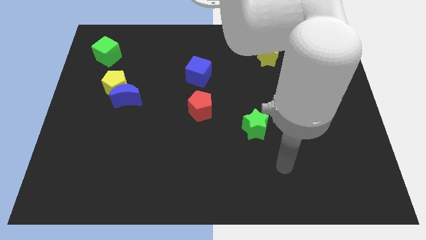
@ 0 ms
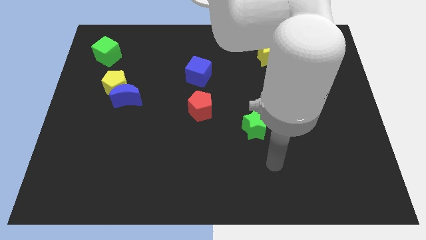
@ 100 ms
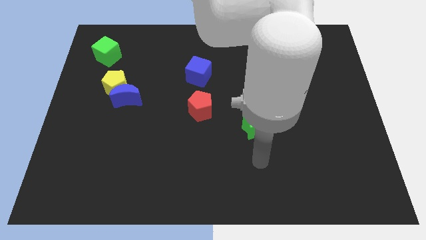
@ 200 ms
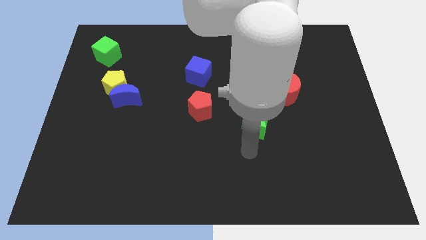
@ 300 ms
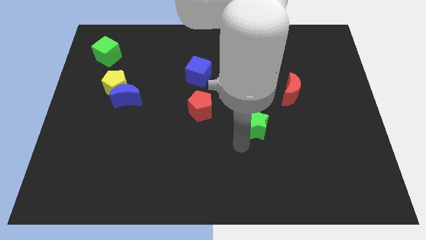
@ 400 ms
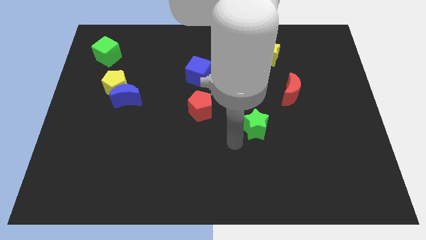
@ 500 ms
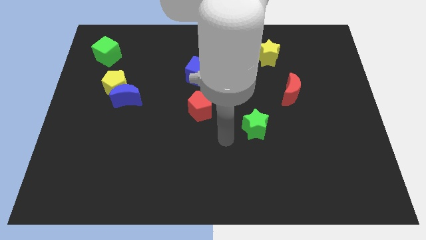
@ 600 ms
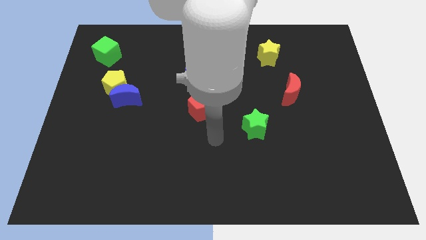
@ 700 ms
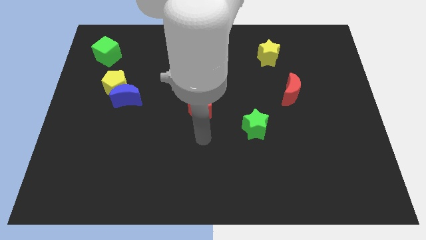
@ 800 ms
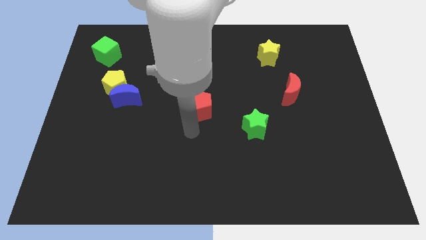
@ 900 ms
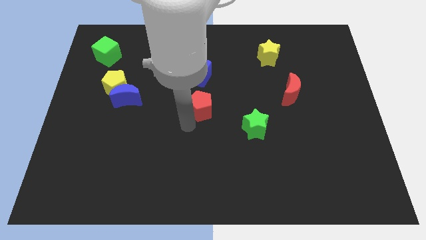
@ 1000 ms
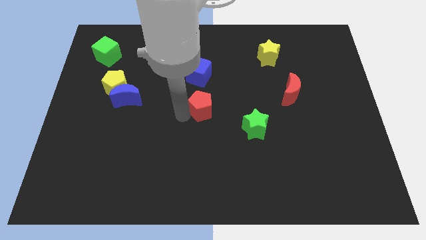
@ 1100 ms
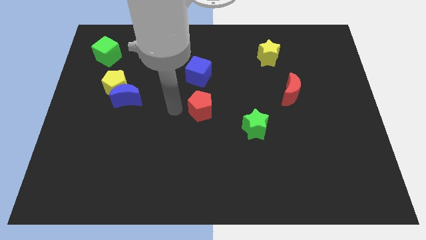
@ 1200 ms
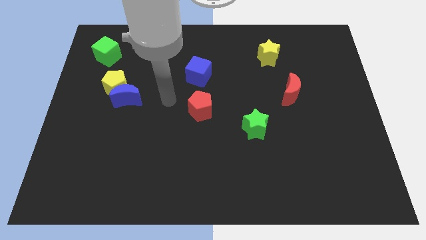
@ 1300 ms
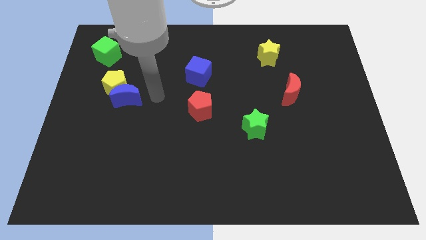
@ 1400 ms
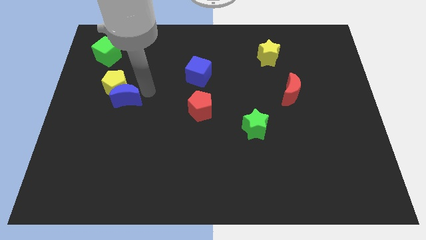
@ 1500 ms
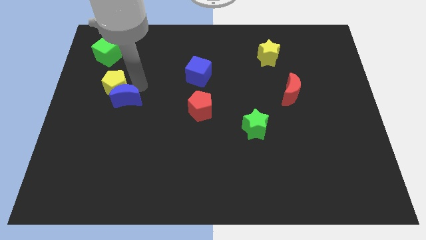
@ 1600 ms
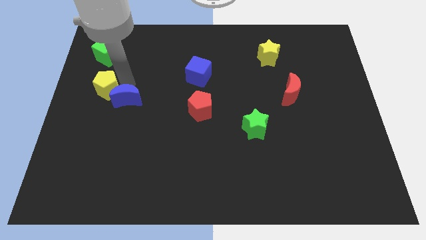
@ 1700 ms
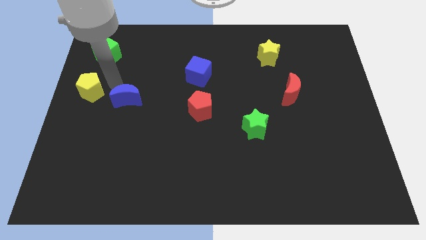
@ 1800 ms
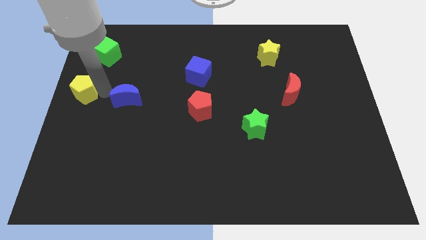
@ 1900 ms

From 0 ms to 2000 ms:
separate the blue moon from the yellow pentagon

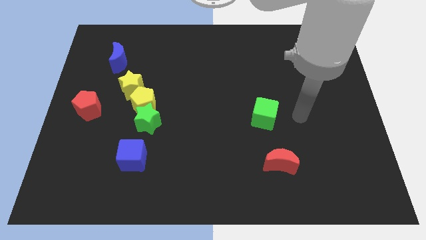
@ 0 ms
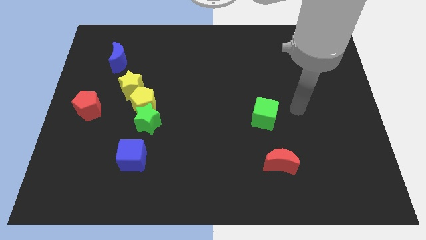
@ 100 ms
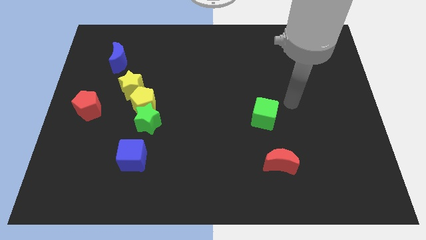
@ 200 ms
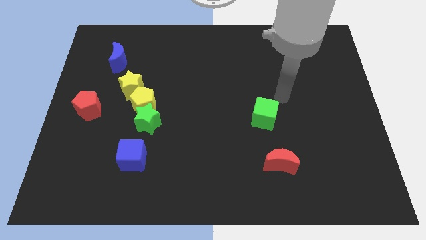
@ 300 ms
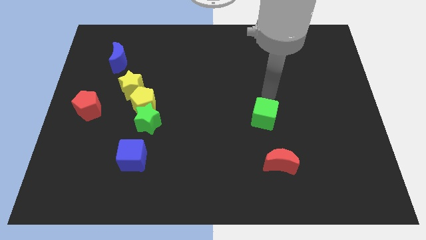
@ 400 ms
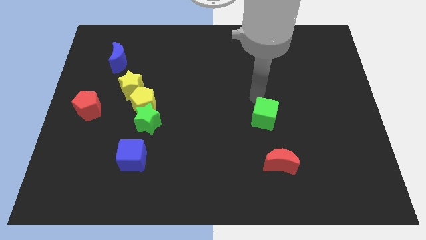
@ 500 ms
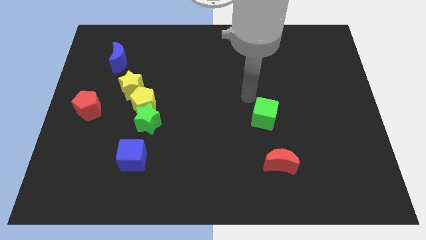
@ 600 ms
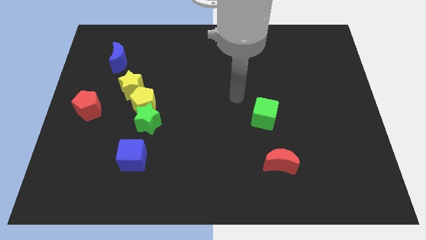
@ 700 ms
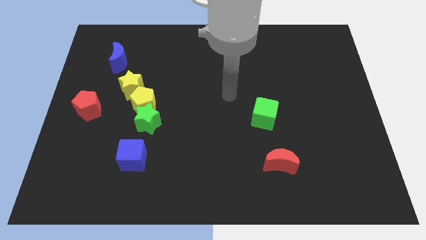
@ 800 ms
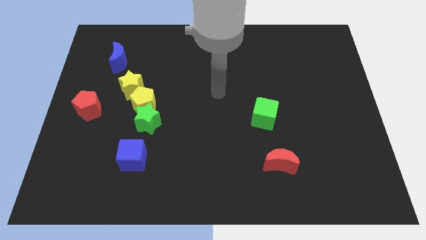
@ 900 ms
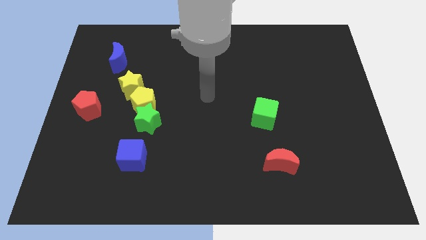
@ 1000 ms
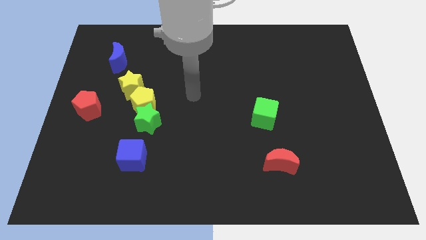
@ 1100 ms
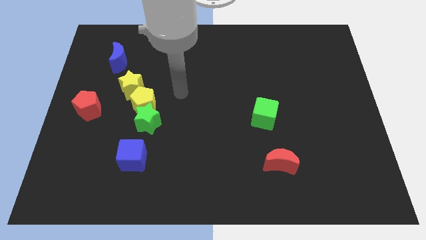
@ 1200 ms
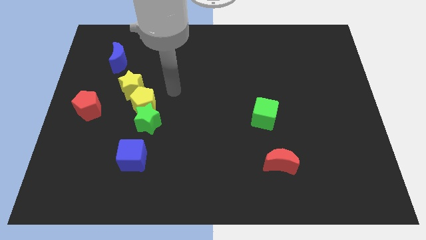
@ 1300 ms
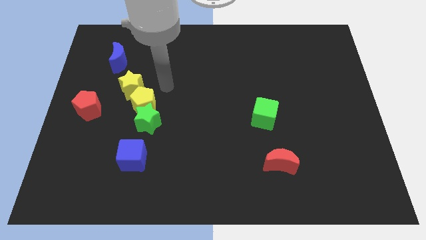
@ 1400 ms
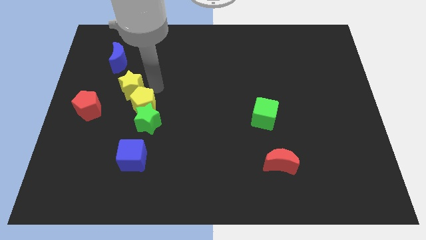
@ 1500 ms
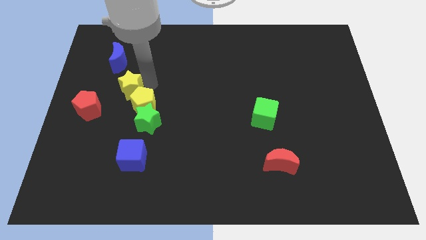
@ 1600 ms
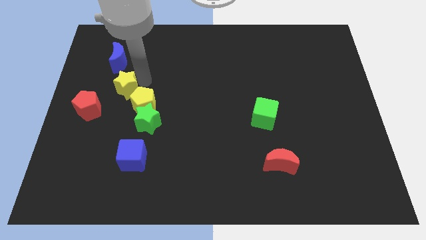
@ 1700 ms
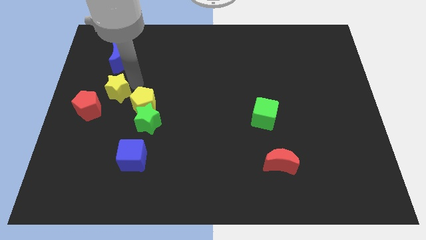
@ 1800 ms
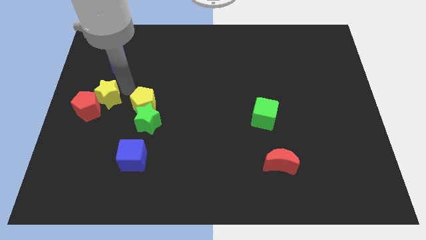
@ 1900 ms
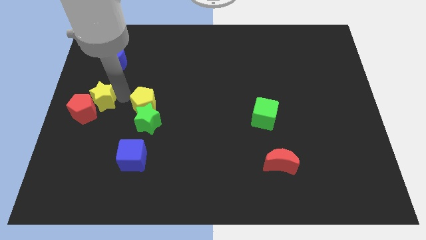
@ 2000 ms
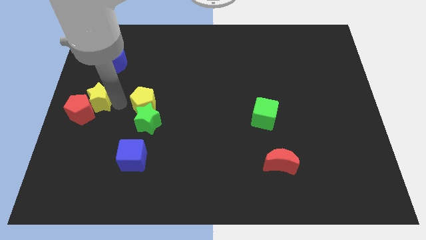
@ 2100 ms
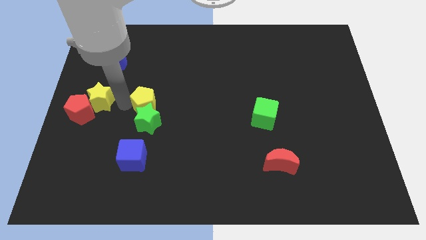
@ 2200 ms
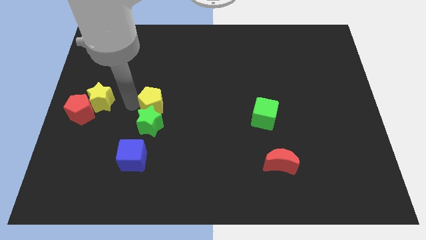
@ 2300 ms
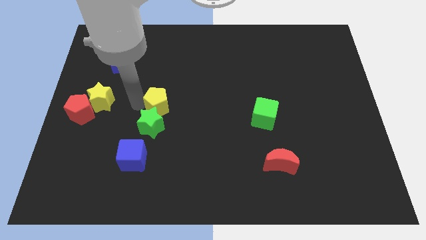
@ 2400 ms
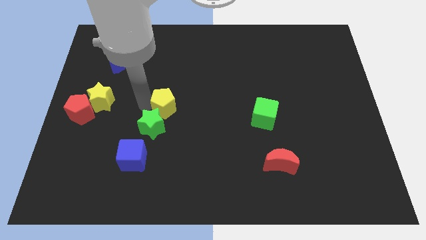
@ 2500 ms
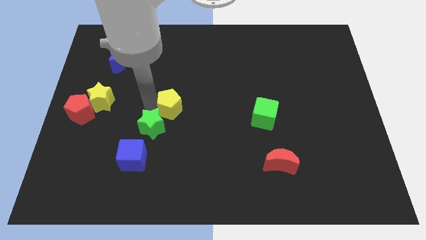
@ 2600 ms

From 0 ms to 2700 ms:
move the yellow pentagon away from the green star and yellow star

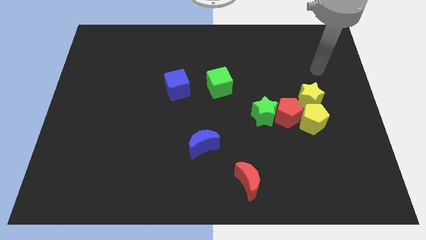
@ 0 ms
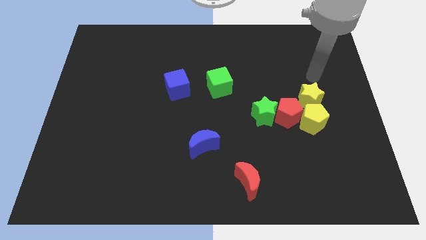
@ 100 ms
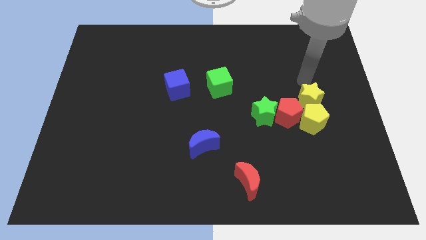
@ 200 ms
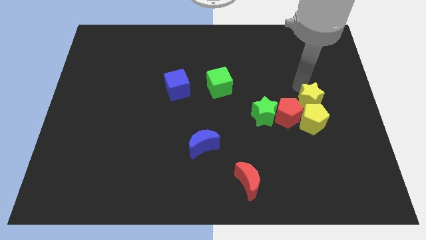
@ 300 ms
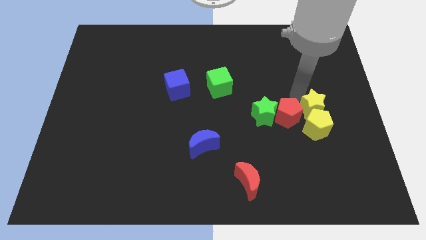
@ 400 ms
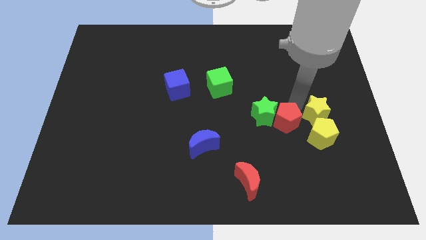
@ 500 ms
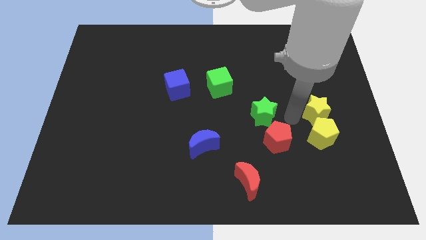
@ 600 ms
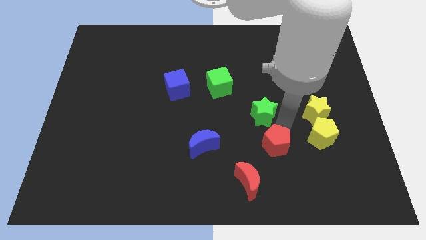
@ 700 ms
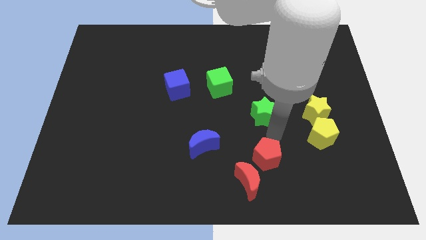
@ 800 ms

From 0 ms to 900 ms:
pull the green star apart from the red pentagon

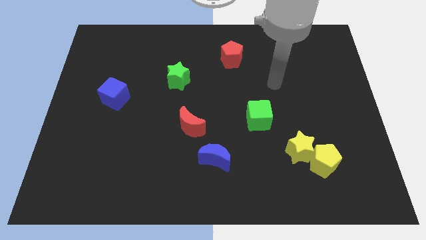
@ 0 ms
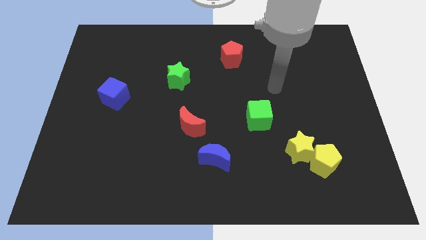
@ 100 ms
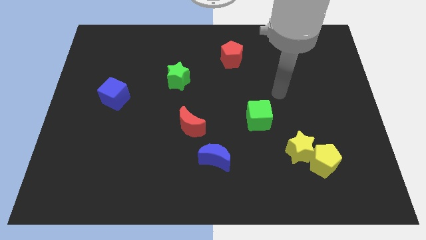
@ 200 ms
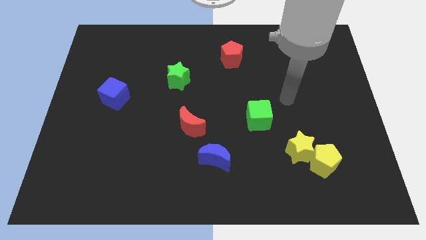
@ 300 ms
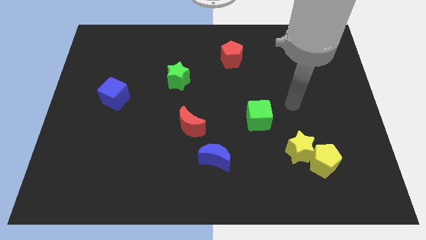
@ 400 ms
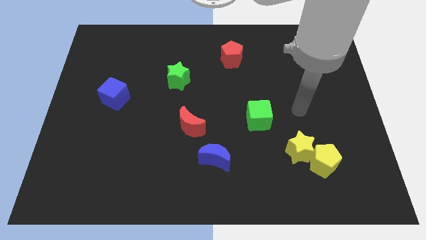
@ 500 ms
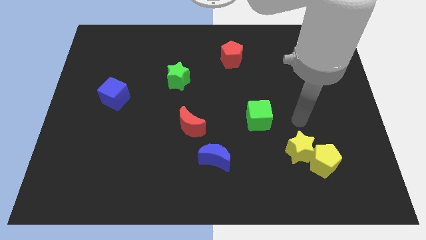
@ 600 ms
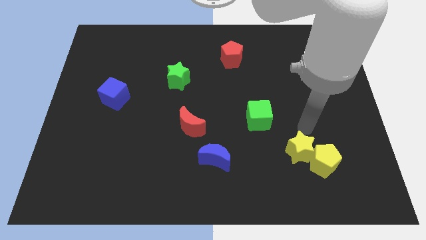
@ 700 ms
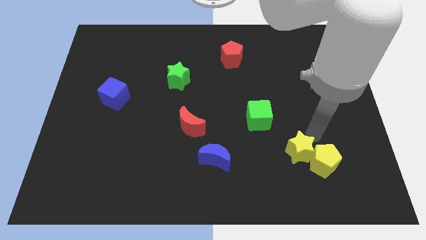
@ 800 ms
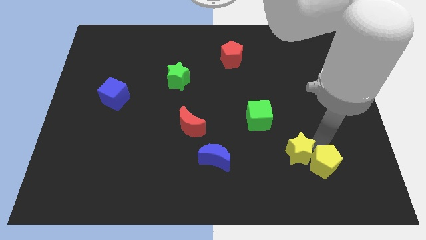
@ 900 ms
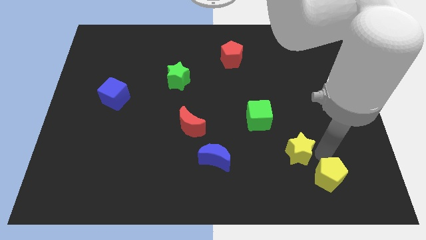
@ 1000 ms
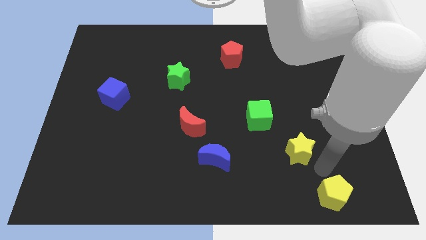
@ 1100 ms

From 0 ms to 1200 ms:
move the yellow star away from the yellow pentagon

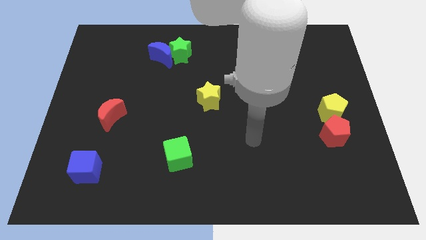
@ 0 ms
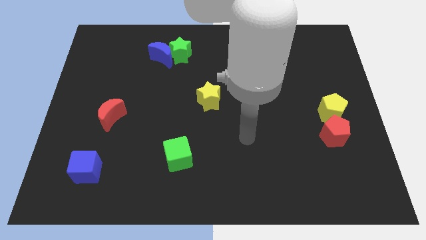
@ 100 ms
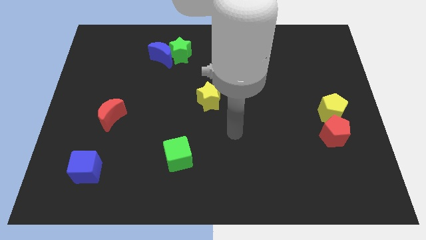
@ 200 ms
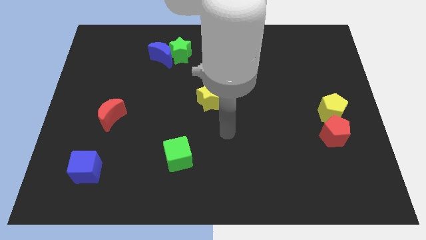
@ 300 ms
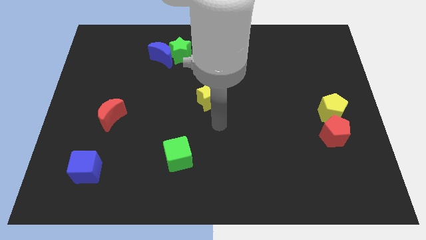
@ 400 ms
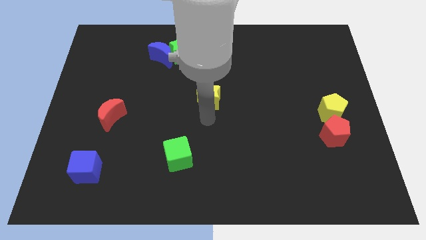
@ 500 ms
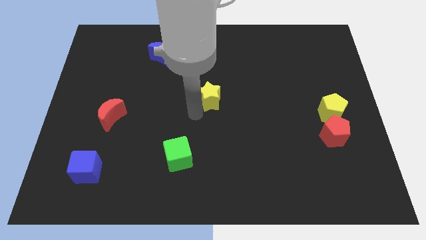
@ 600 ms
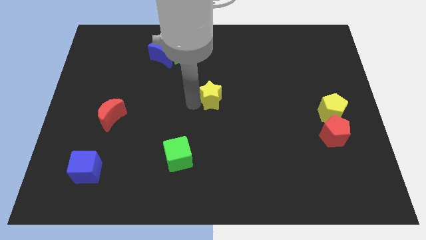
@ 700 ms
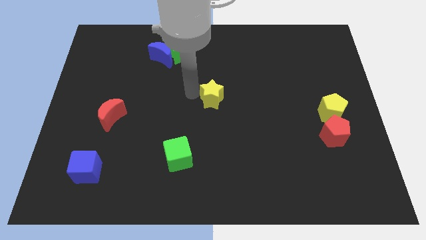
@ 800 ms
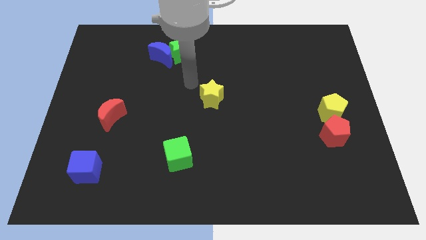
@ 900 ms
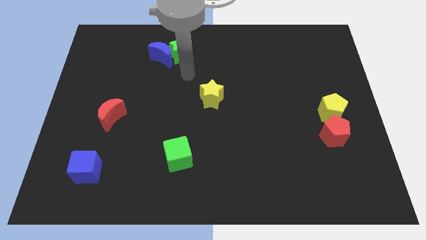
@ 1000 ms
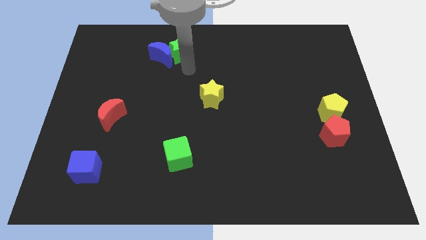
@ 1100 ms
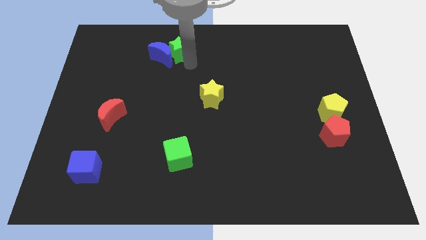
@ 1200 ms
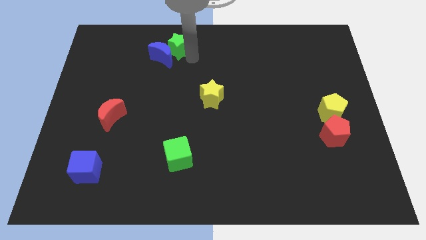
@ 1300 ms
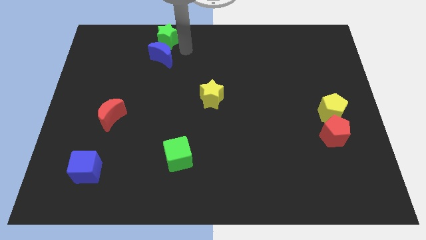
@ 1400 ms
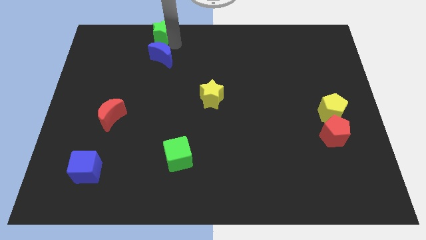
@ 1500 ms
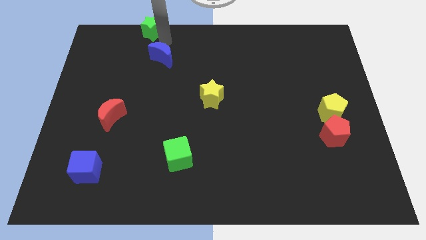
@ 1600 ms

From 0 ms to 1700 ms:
move the blue moon away from the green star

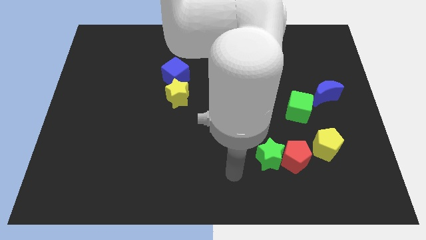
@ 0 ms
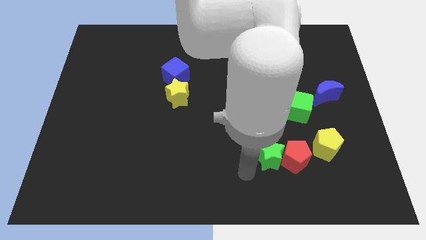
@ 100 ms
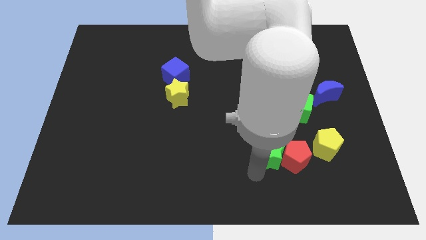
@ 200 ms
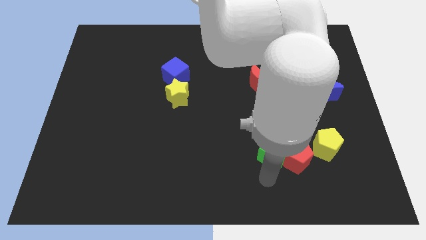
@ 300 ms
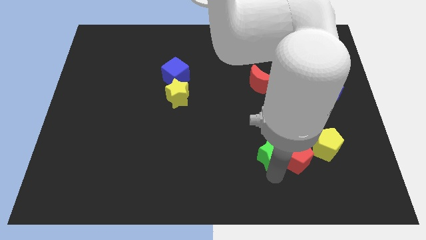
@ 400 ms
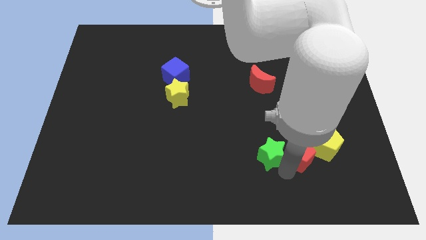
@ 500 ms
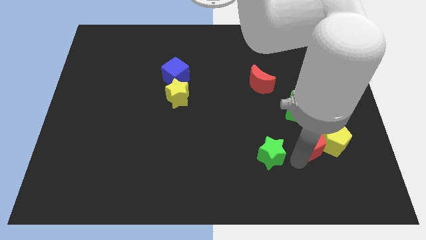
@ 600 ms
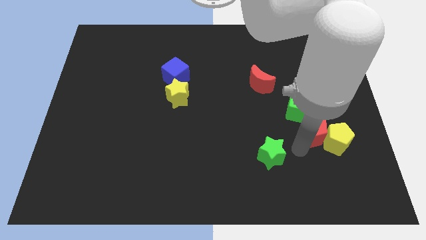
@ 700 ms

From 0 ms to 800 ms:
move the green star away from the red pentagon
